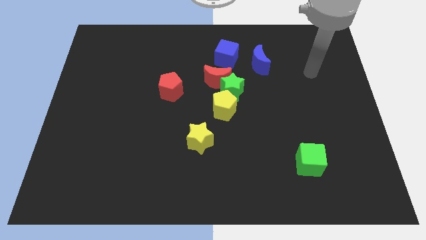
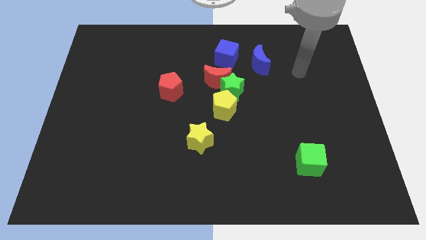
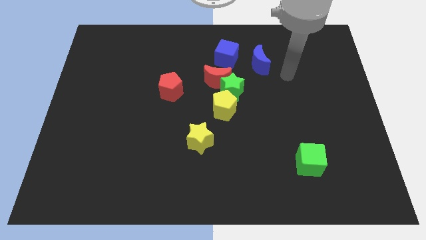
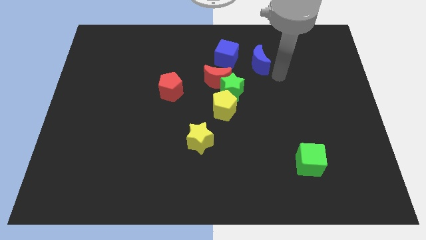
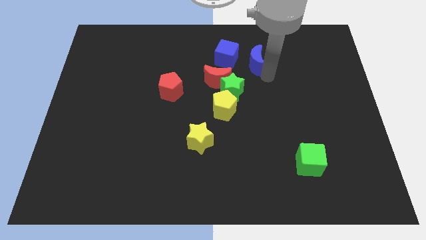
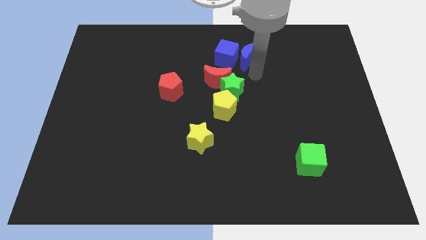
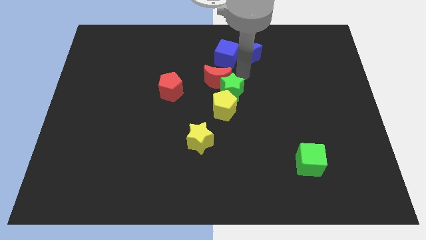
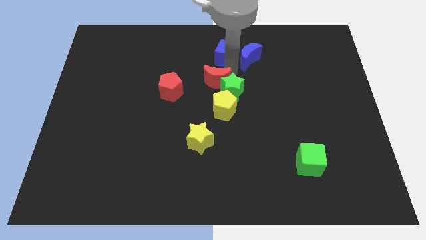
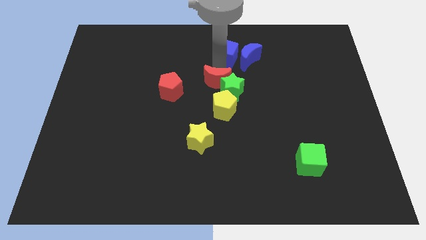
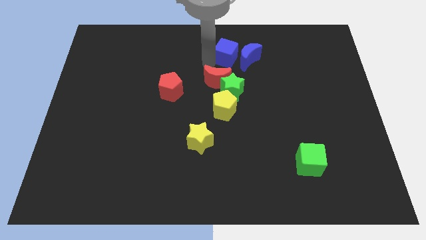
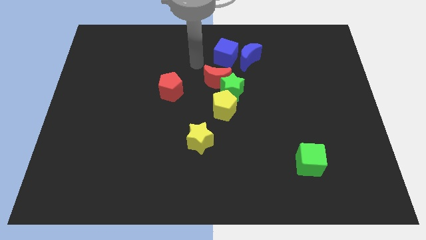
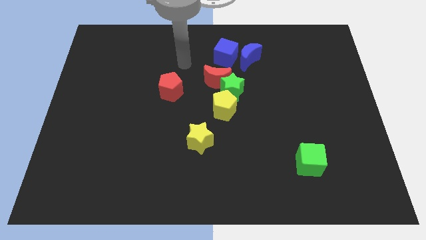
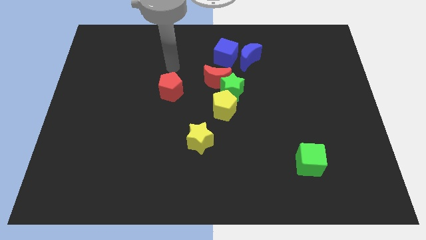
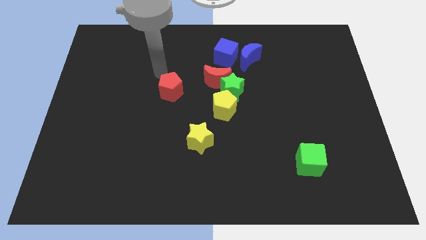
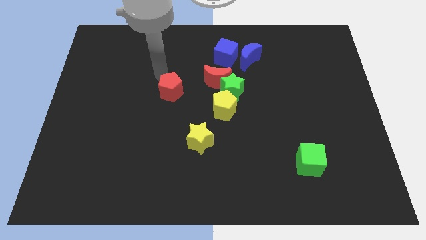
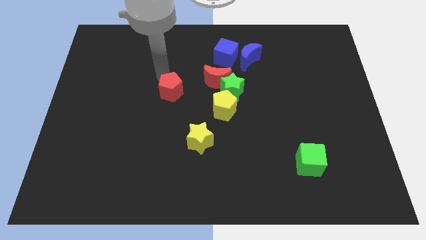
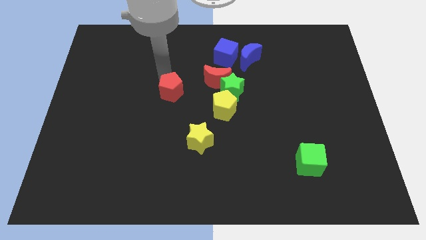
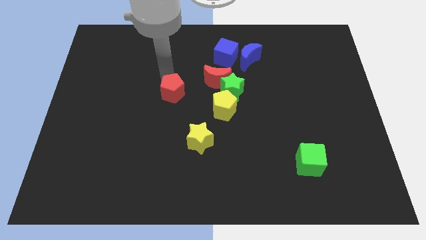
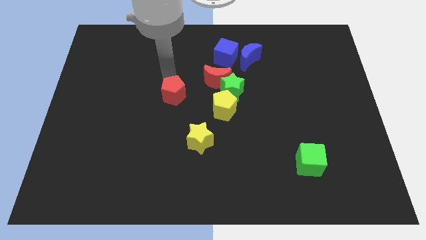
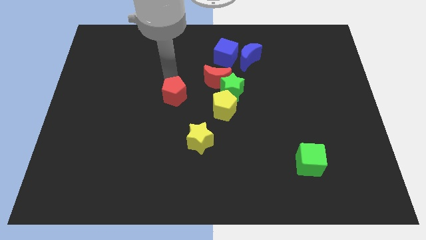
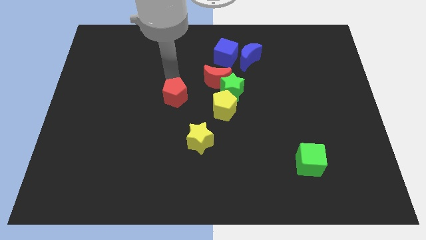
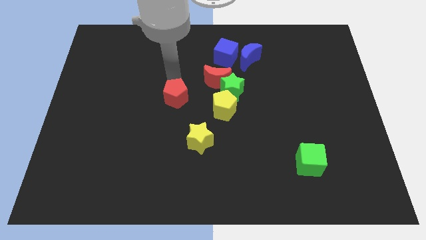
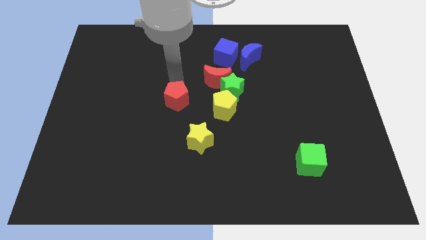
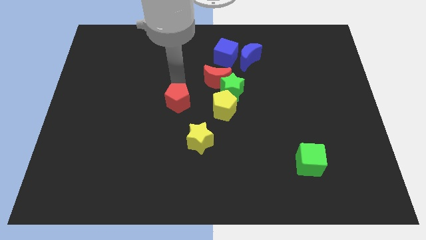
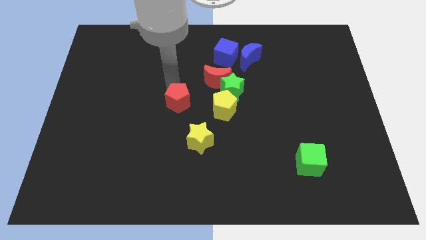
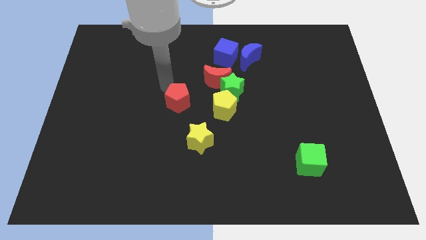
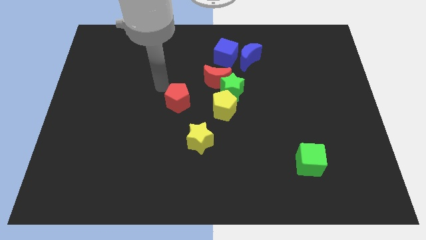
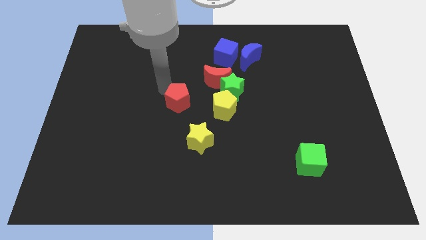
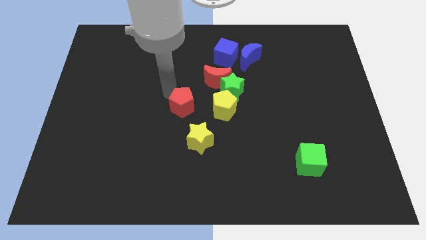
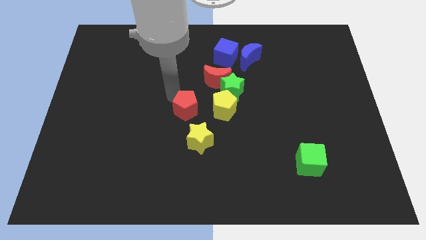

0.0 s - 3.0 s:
move the red pentagon downwards and then right slightly

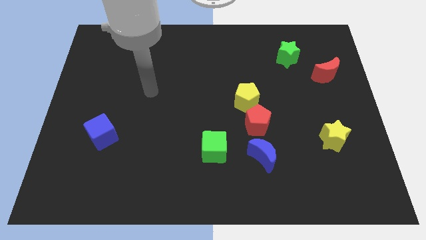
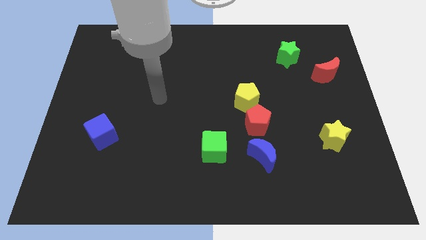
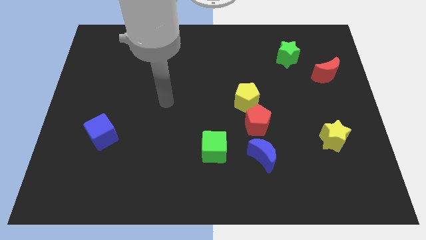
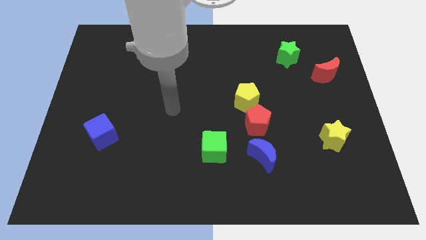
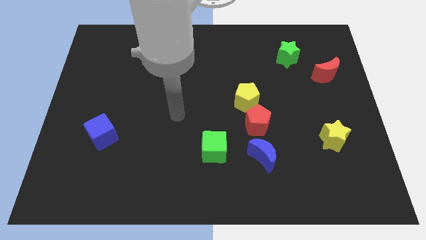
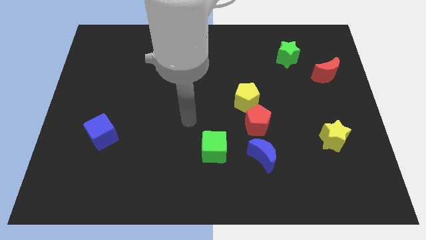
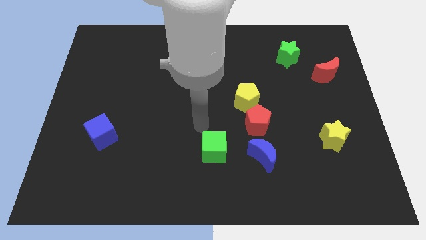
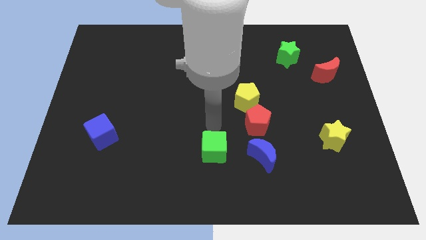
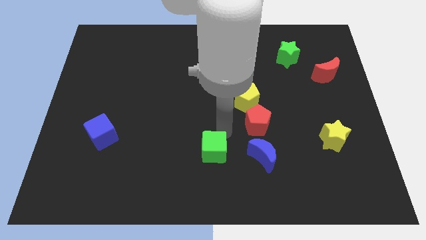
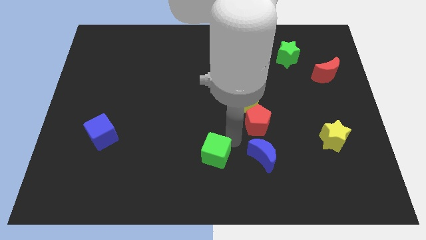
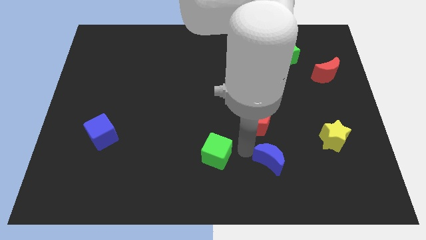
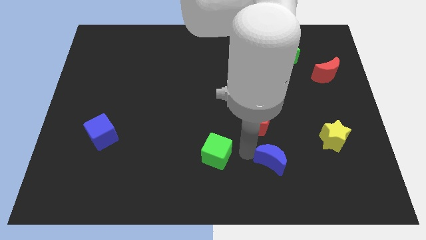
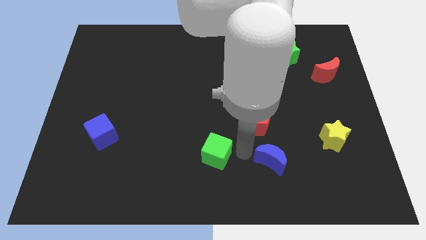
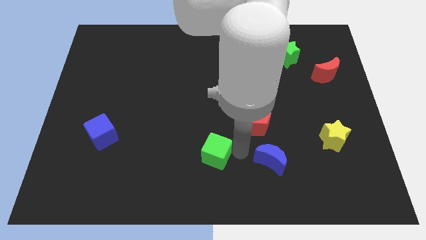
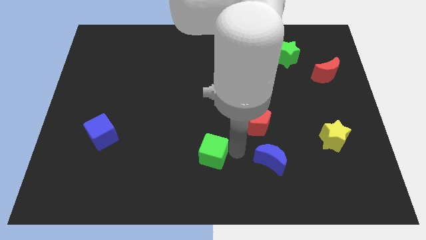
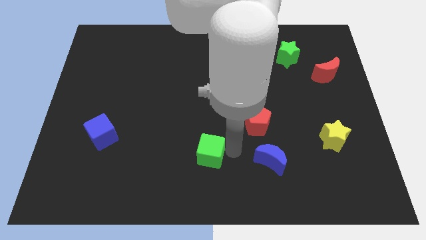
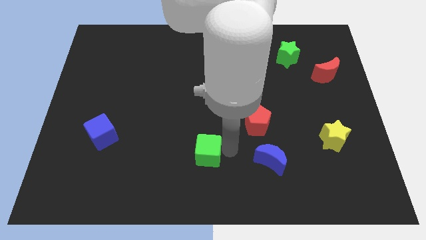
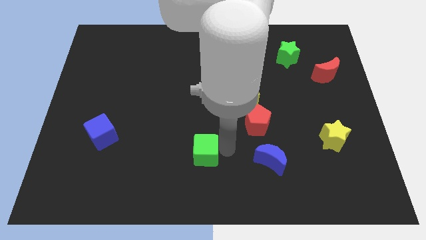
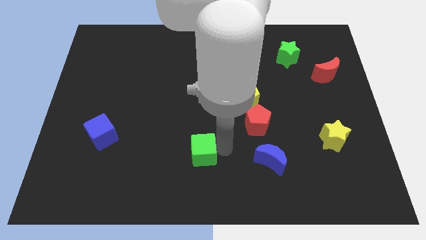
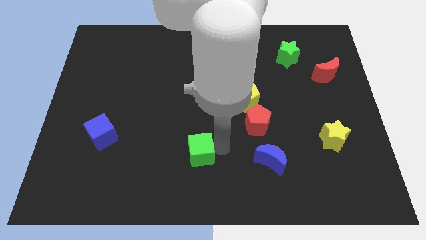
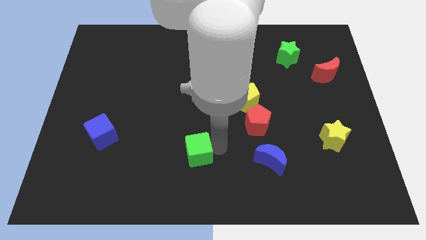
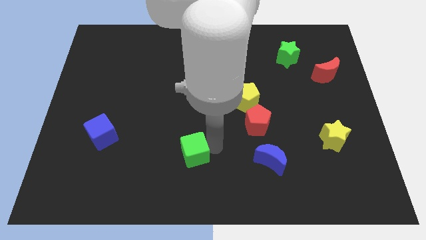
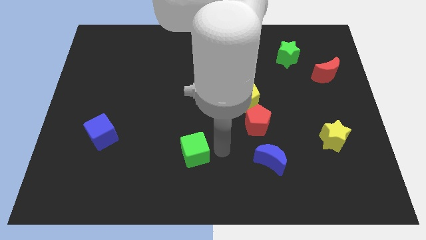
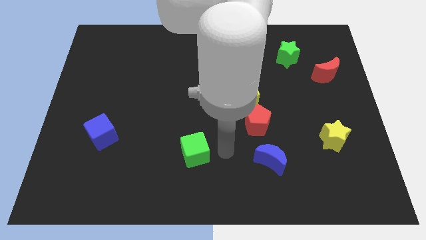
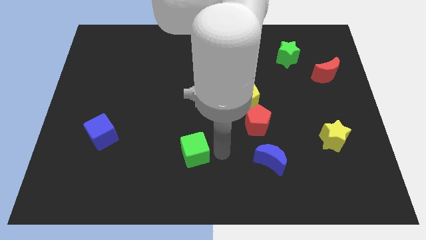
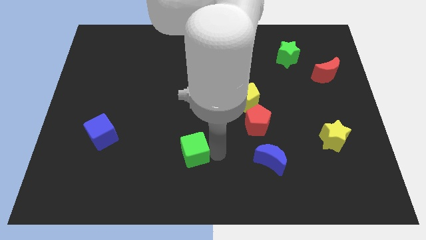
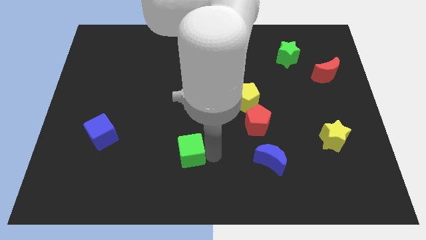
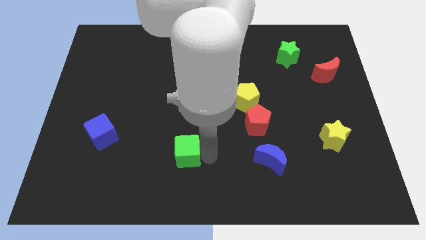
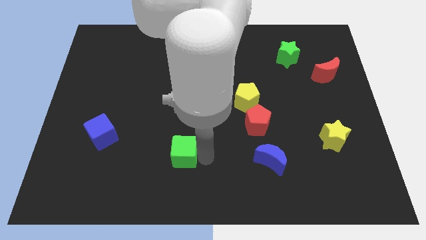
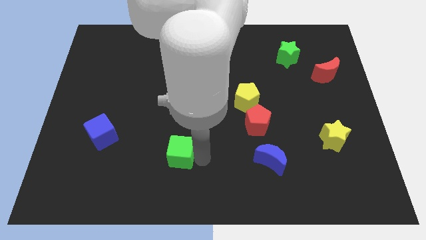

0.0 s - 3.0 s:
slide the green cube left slightly

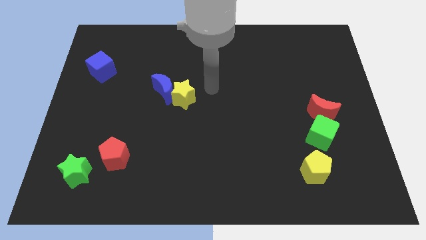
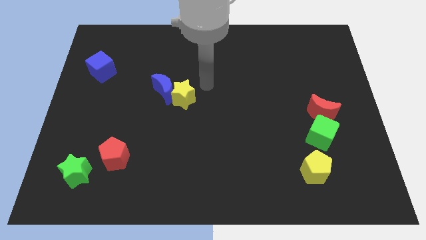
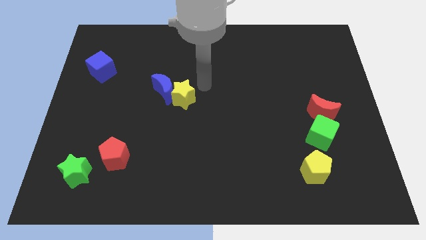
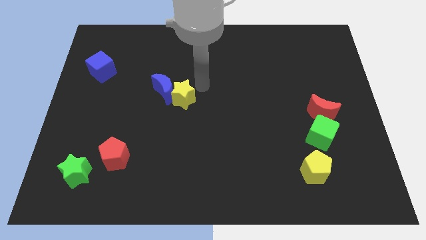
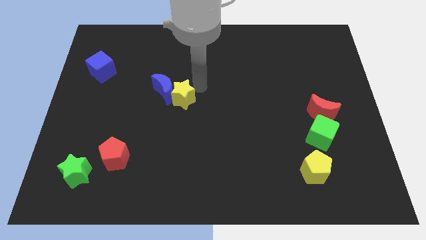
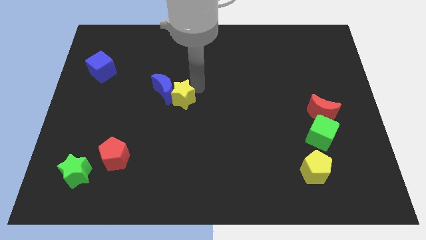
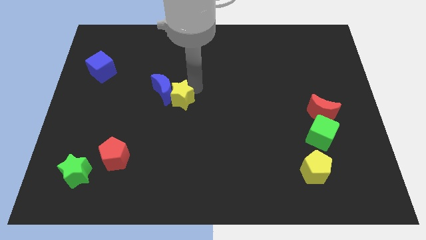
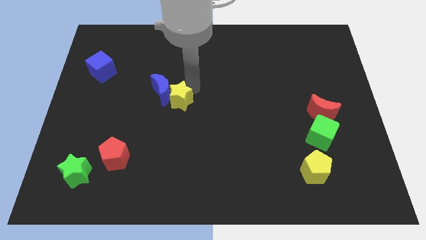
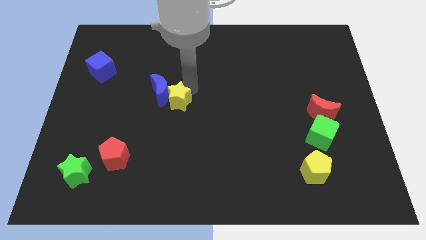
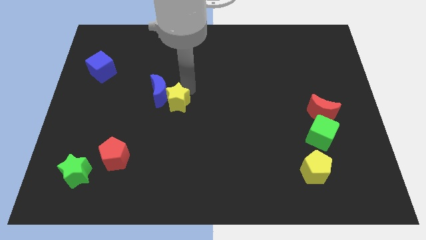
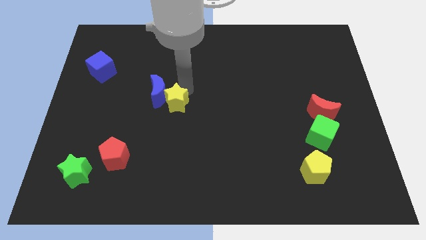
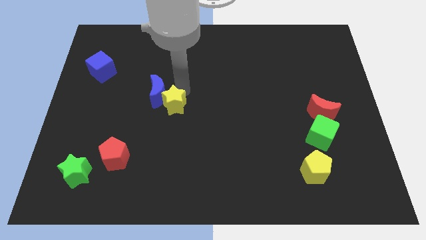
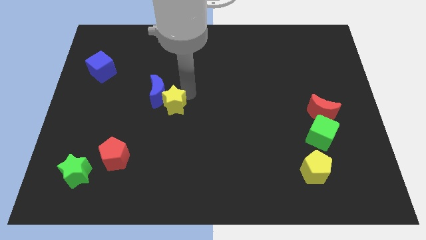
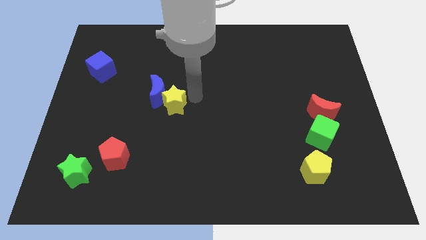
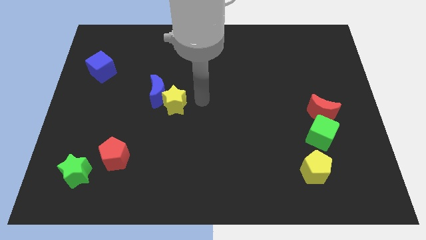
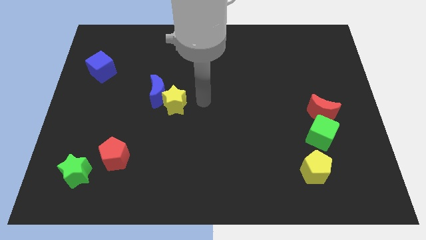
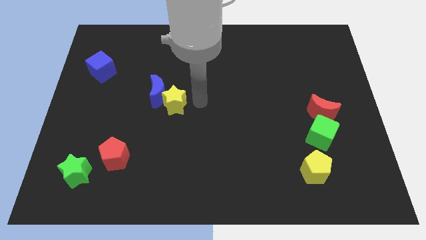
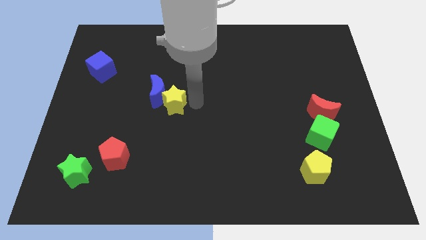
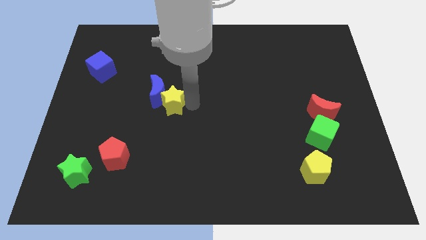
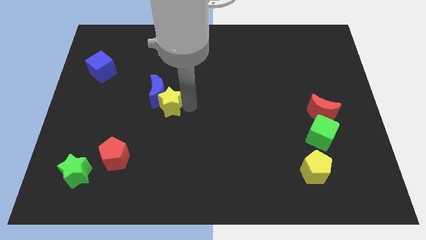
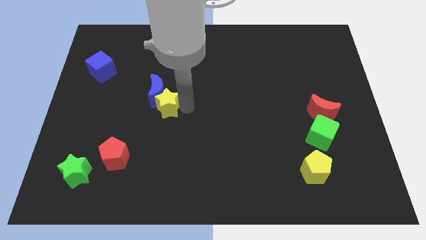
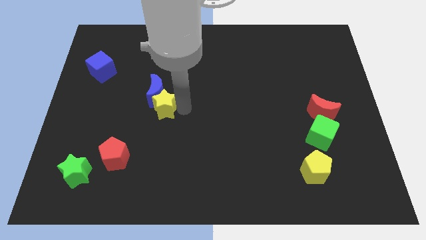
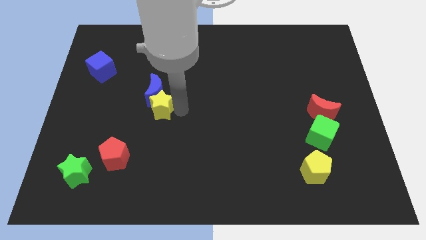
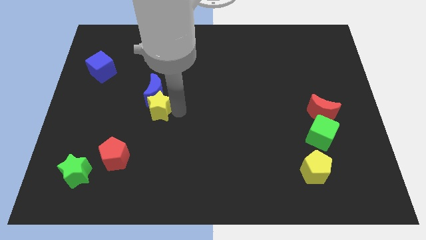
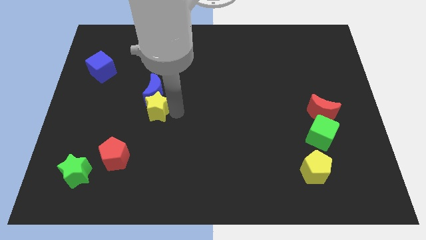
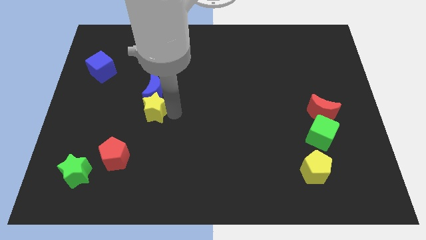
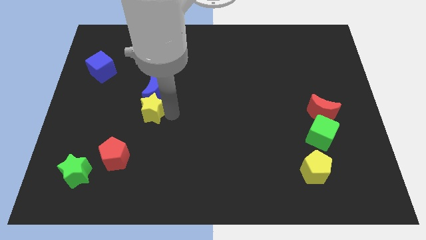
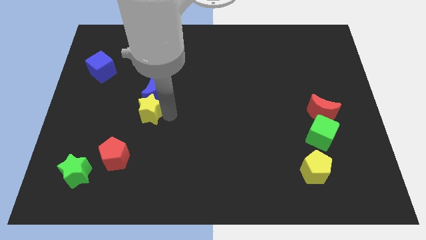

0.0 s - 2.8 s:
push the yellow star to the left somewhat
